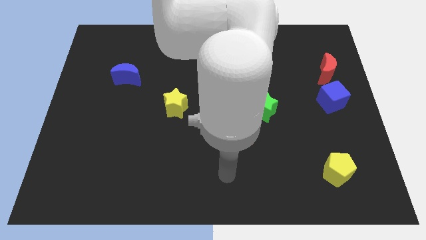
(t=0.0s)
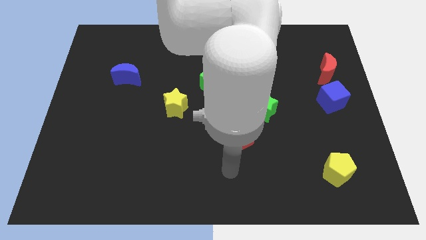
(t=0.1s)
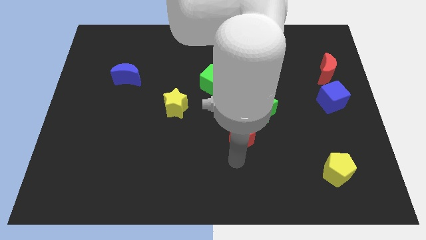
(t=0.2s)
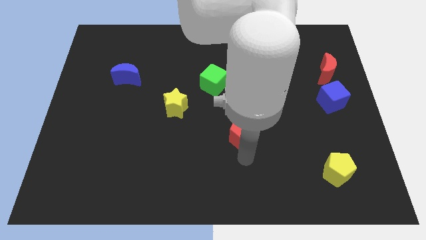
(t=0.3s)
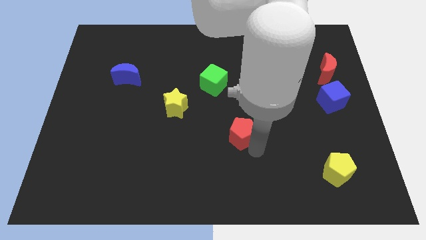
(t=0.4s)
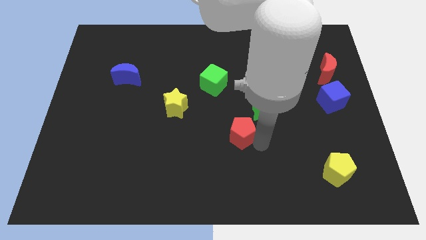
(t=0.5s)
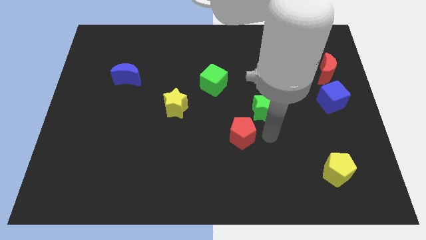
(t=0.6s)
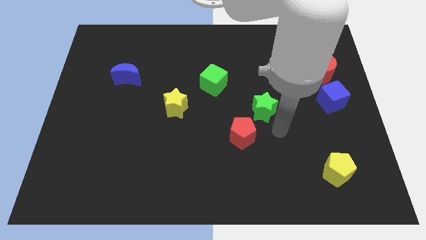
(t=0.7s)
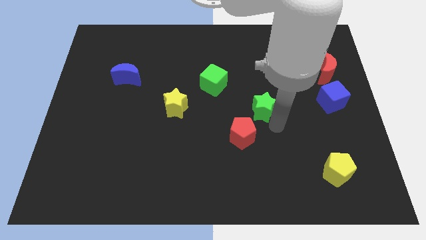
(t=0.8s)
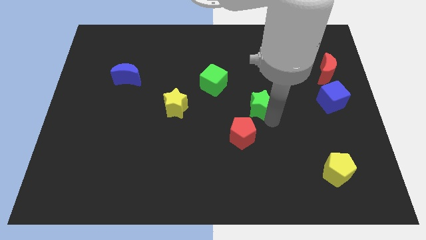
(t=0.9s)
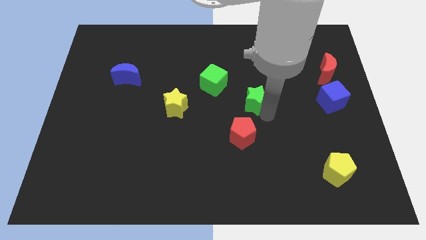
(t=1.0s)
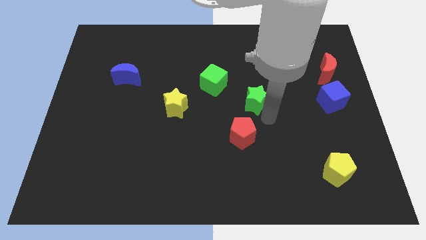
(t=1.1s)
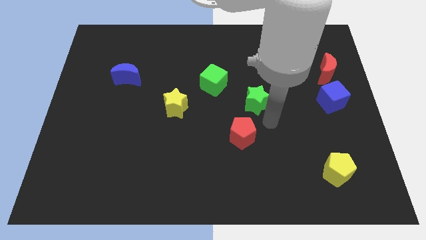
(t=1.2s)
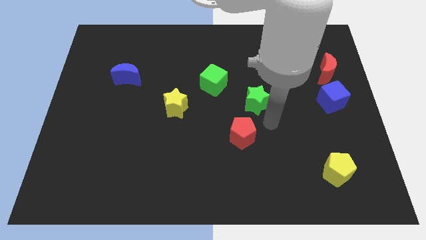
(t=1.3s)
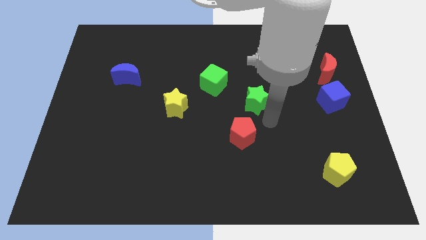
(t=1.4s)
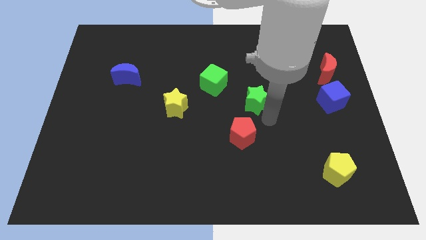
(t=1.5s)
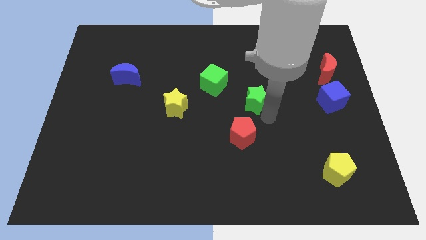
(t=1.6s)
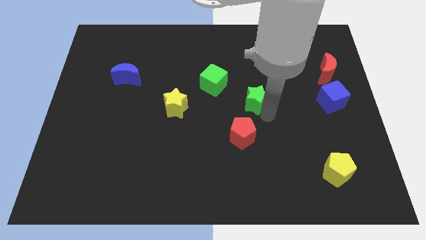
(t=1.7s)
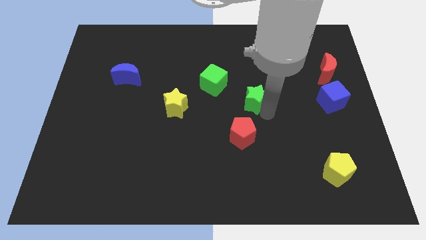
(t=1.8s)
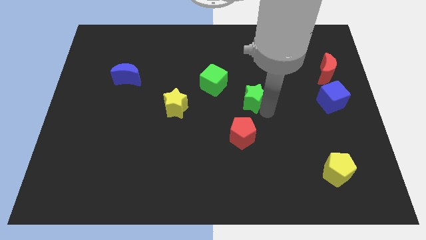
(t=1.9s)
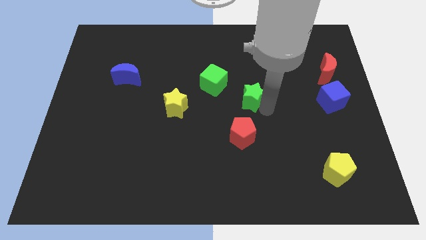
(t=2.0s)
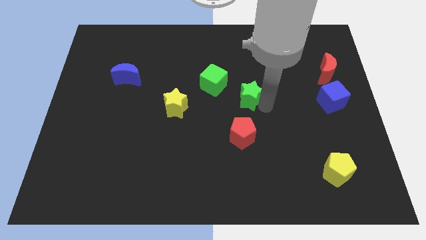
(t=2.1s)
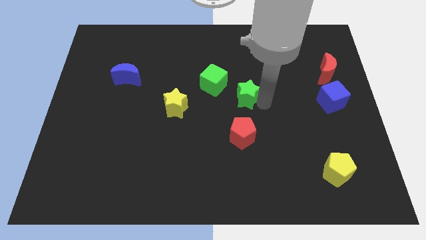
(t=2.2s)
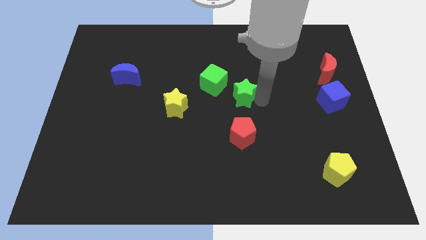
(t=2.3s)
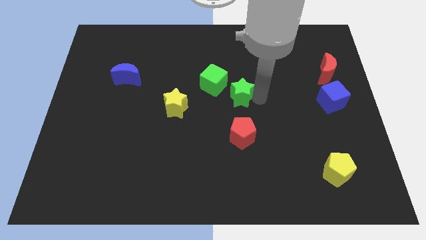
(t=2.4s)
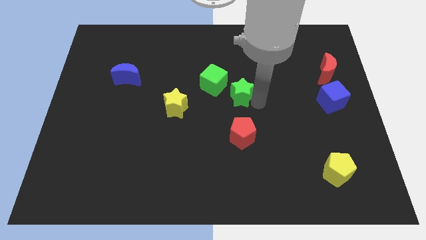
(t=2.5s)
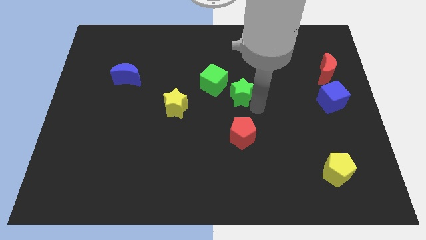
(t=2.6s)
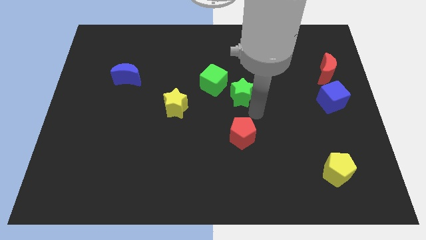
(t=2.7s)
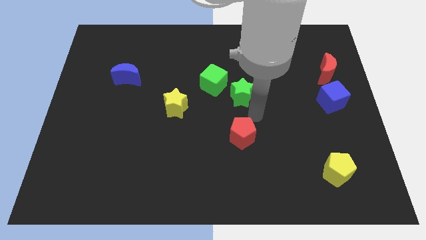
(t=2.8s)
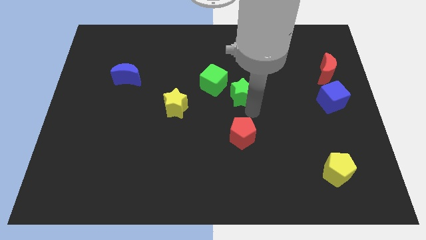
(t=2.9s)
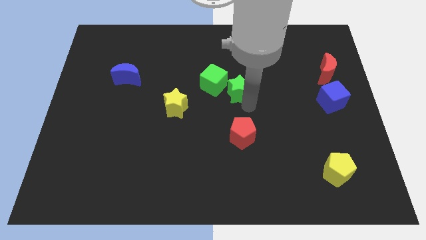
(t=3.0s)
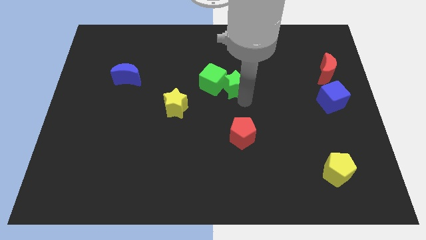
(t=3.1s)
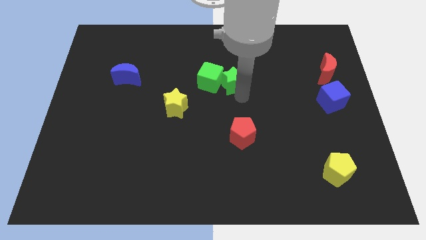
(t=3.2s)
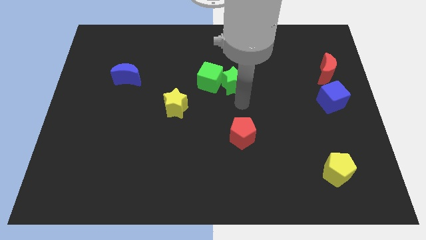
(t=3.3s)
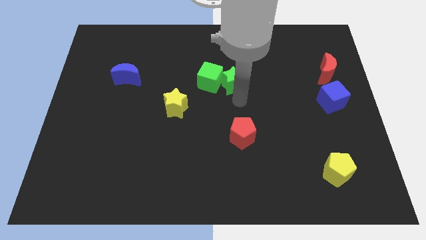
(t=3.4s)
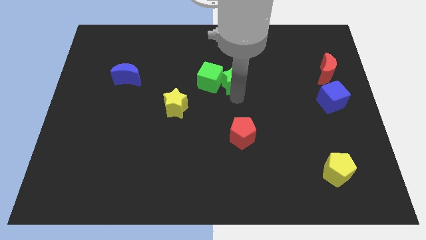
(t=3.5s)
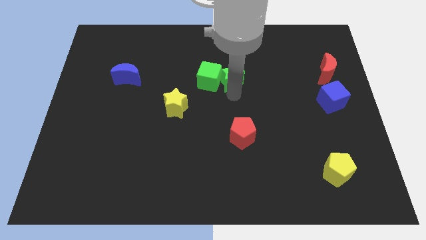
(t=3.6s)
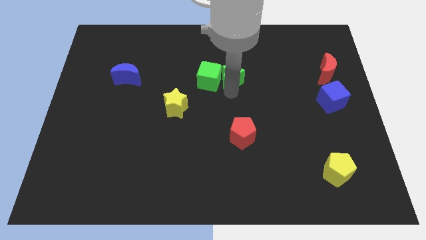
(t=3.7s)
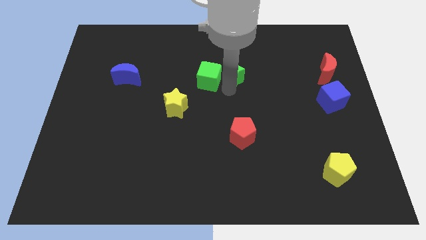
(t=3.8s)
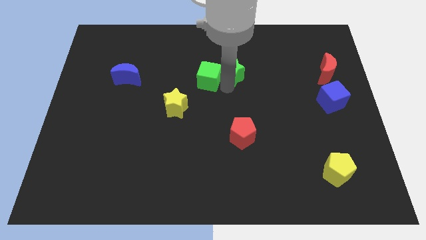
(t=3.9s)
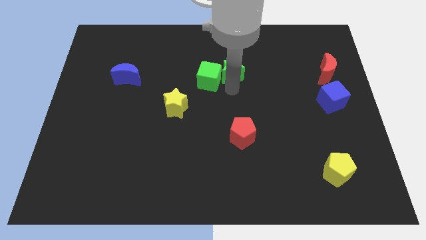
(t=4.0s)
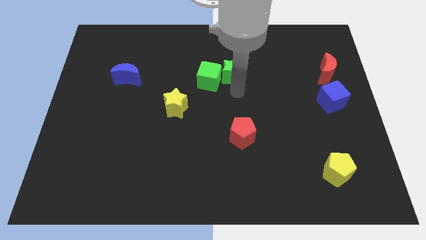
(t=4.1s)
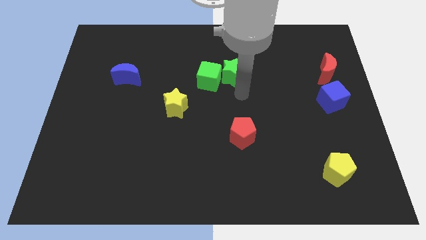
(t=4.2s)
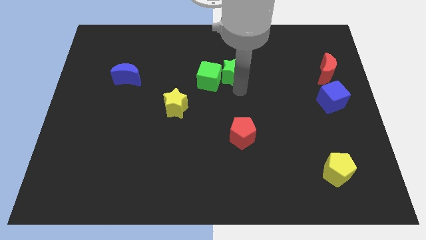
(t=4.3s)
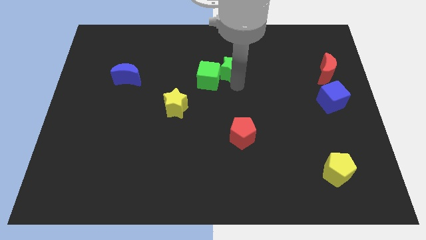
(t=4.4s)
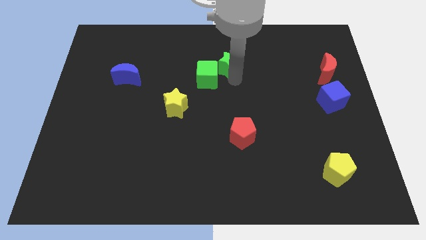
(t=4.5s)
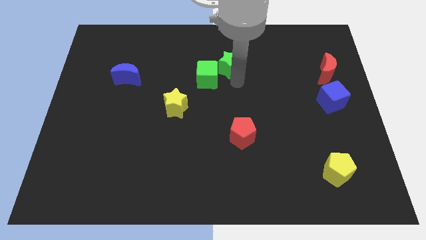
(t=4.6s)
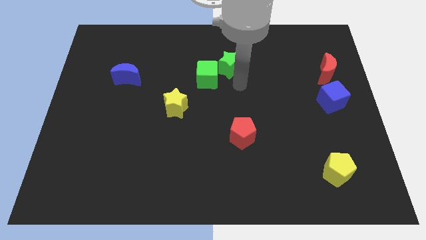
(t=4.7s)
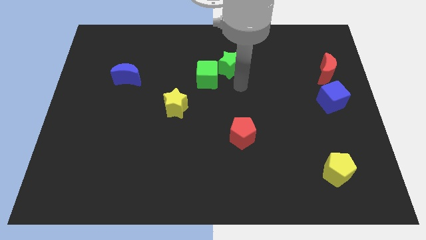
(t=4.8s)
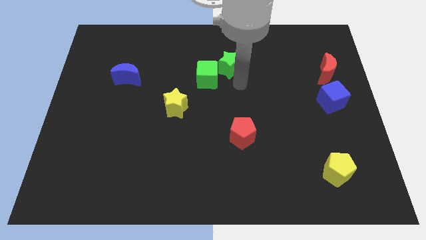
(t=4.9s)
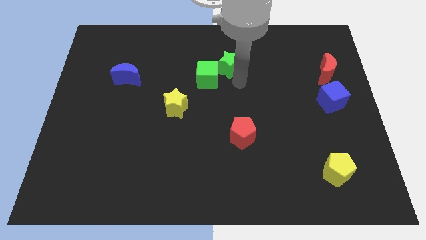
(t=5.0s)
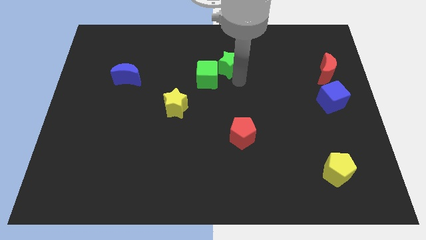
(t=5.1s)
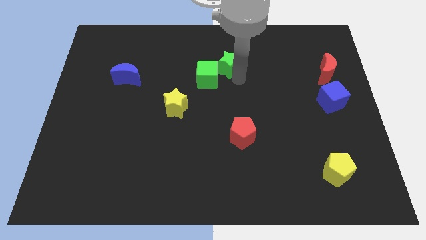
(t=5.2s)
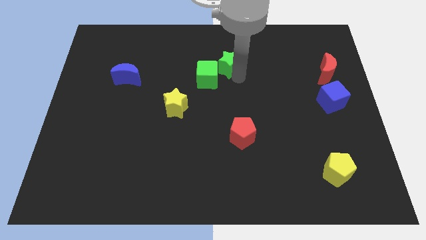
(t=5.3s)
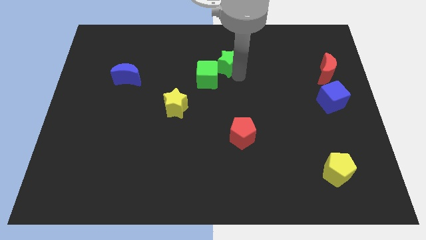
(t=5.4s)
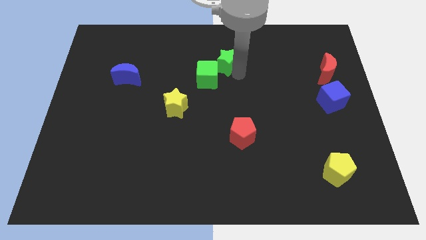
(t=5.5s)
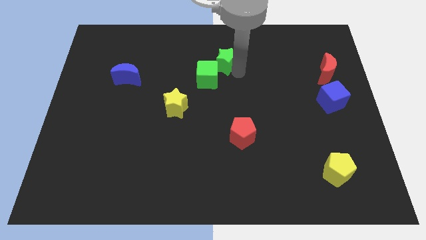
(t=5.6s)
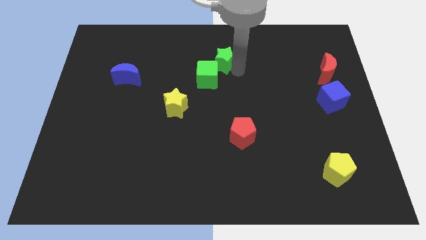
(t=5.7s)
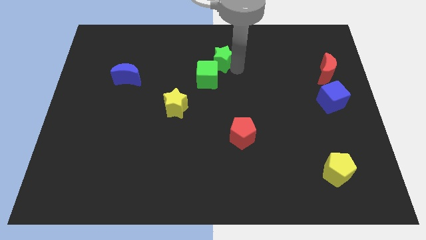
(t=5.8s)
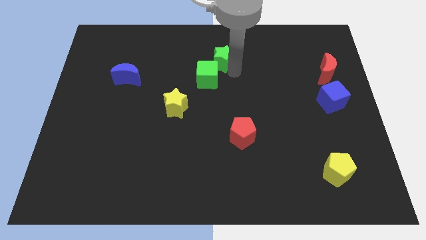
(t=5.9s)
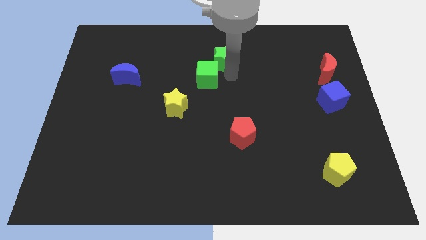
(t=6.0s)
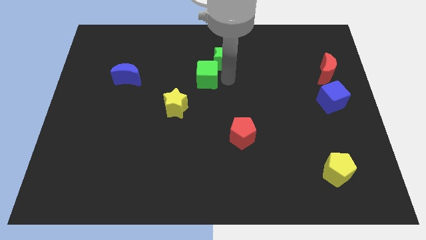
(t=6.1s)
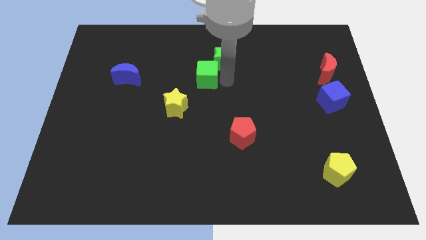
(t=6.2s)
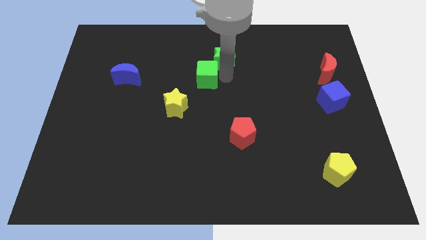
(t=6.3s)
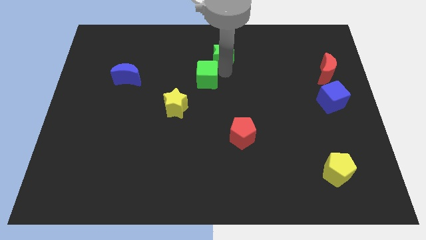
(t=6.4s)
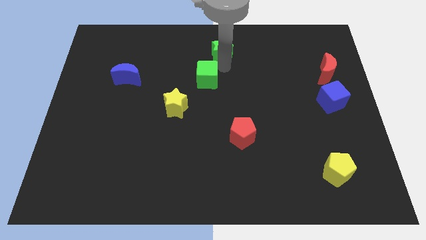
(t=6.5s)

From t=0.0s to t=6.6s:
put the green star to the towards your base

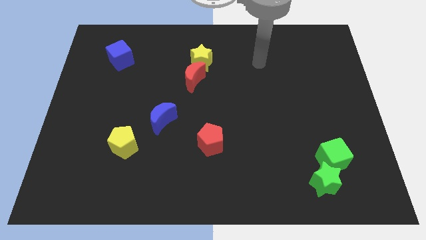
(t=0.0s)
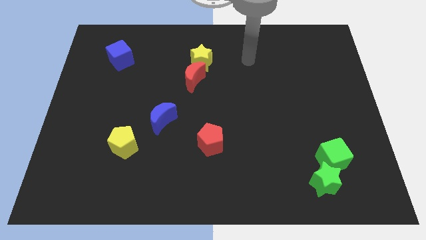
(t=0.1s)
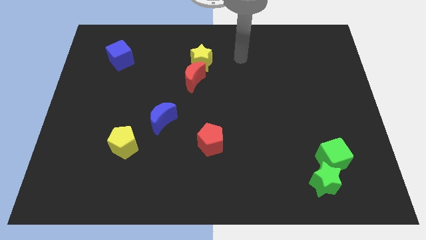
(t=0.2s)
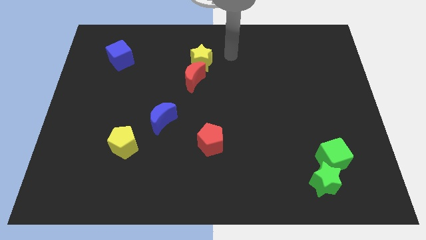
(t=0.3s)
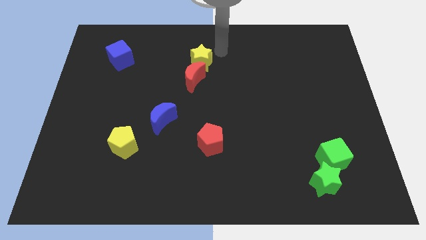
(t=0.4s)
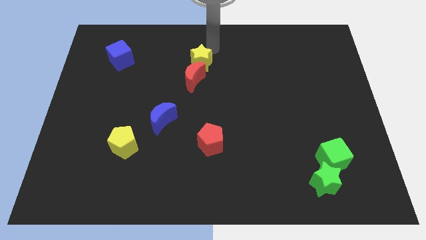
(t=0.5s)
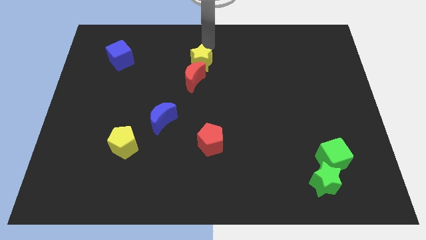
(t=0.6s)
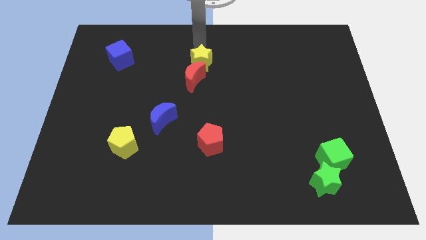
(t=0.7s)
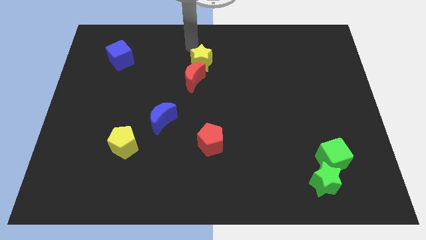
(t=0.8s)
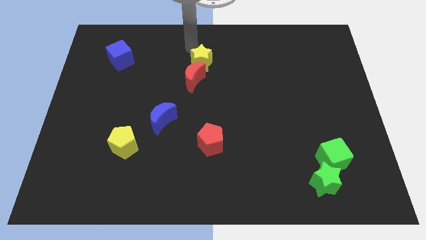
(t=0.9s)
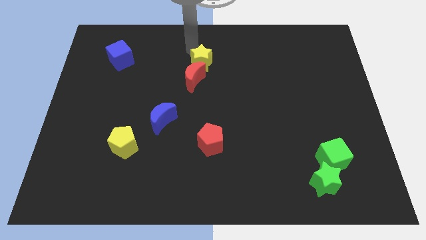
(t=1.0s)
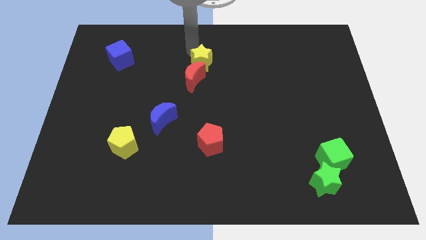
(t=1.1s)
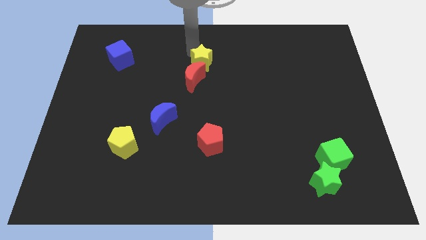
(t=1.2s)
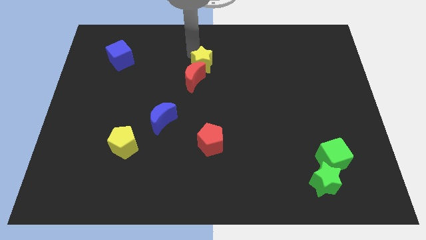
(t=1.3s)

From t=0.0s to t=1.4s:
push the yellow star to the middle of the board
